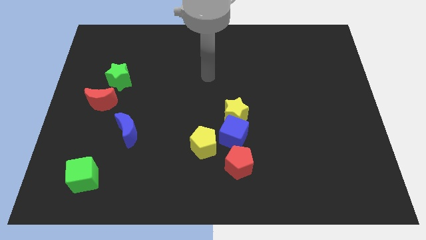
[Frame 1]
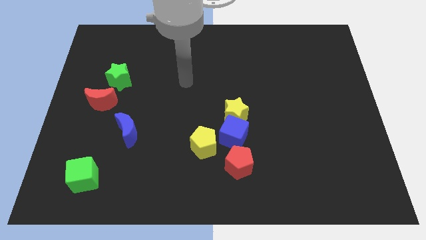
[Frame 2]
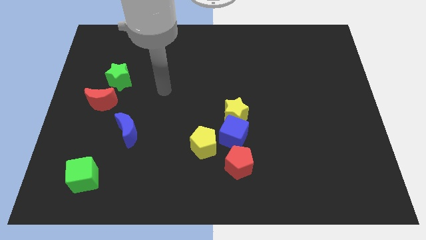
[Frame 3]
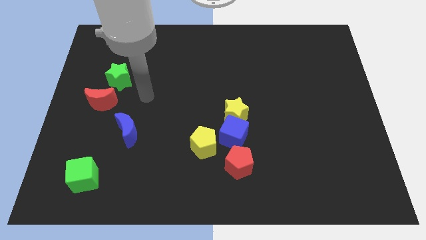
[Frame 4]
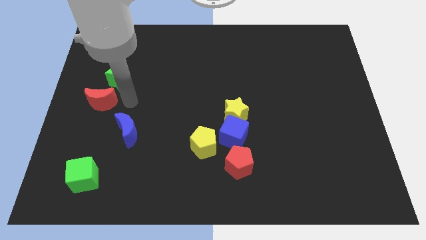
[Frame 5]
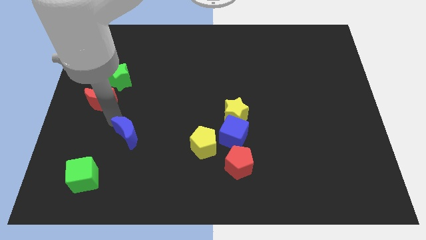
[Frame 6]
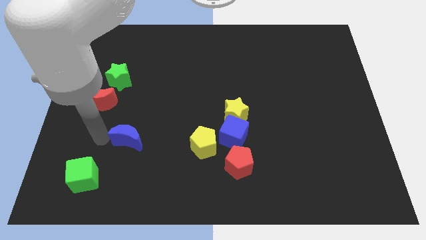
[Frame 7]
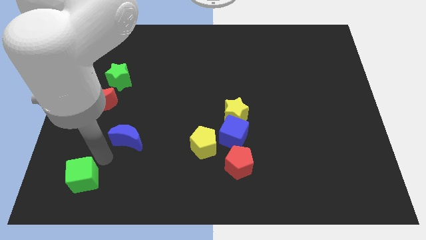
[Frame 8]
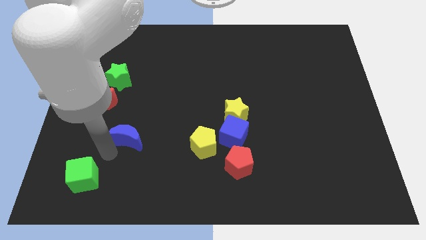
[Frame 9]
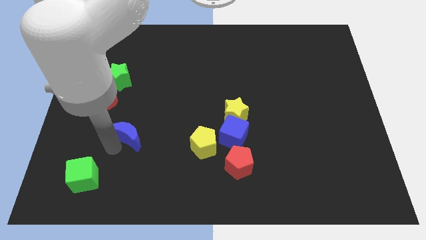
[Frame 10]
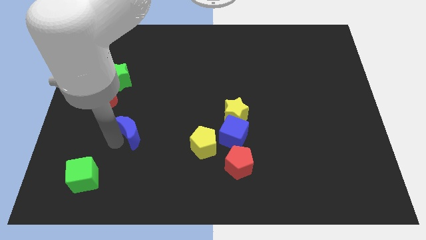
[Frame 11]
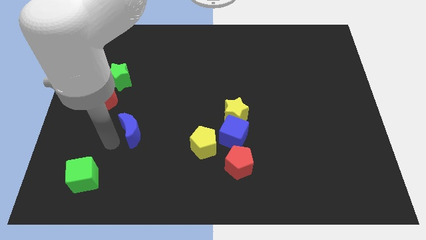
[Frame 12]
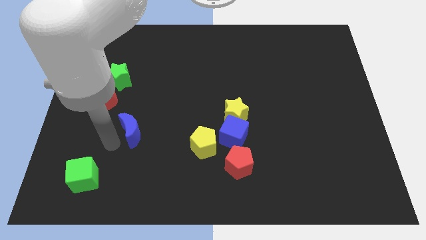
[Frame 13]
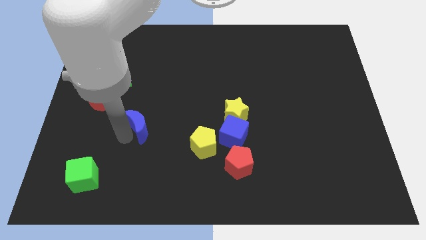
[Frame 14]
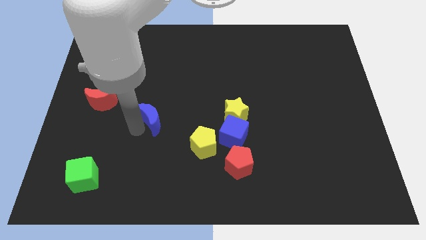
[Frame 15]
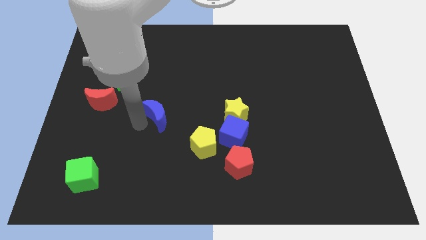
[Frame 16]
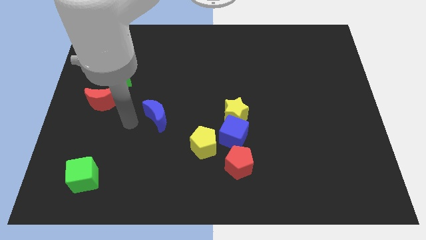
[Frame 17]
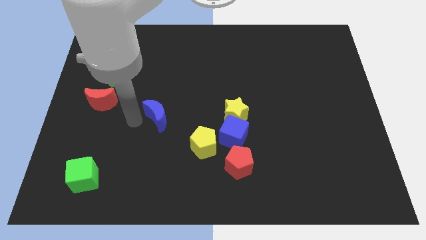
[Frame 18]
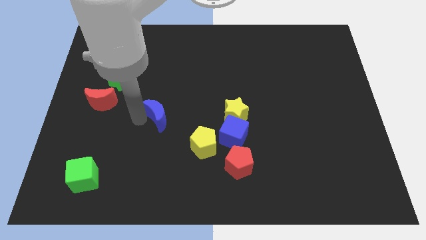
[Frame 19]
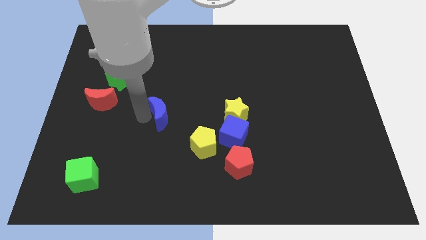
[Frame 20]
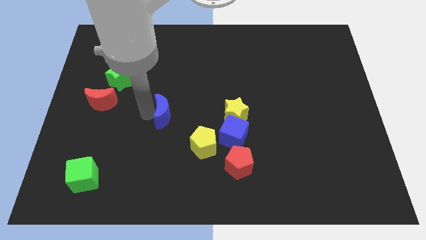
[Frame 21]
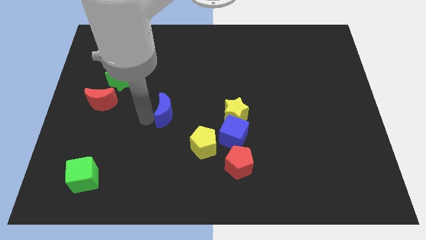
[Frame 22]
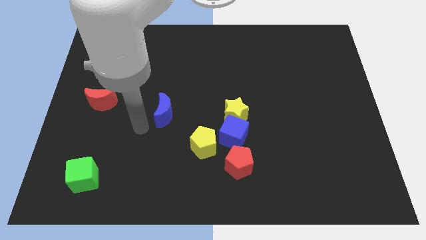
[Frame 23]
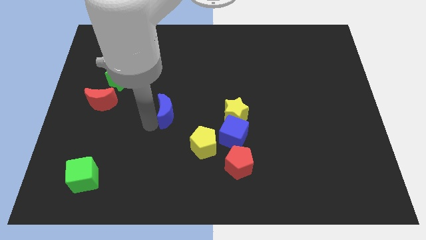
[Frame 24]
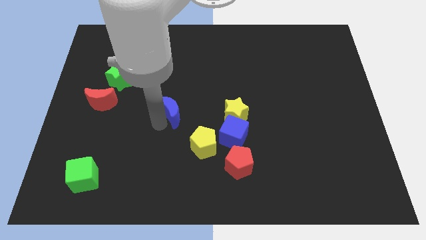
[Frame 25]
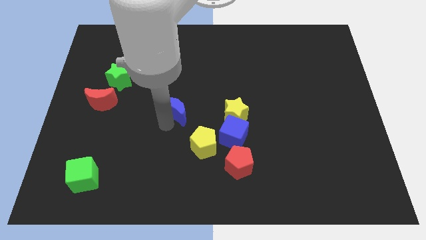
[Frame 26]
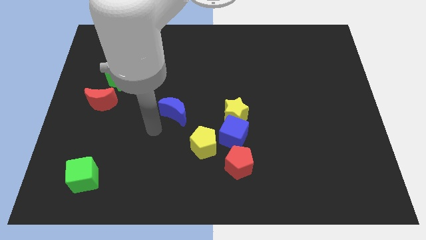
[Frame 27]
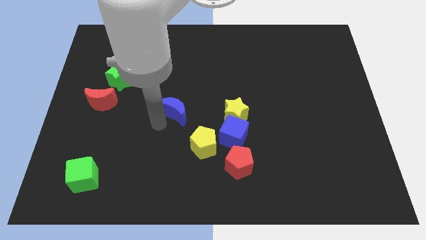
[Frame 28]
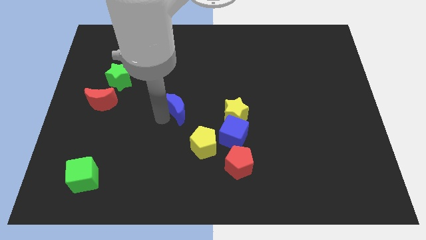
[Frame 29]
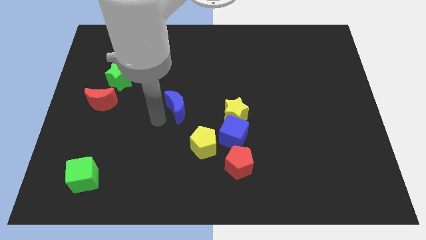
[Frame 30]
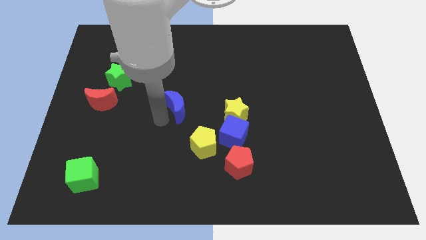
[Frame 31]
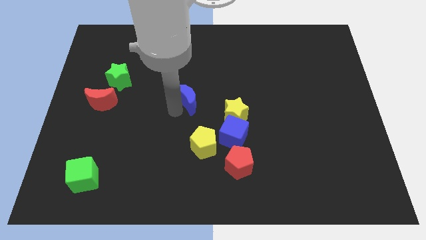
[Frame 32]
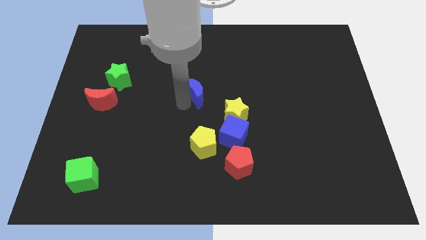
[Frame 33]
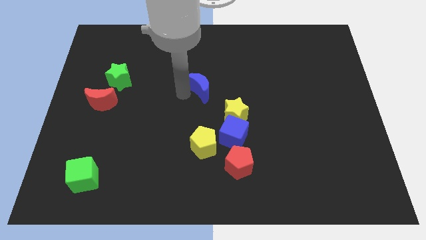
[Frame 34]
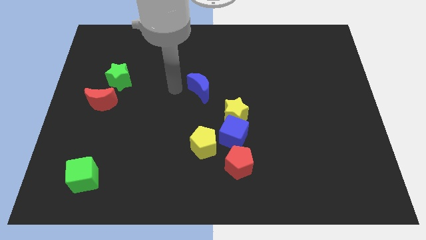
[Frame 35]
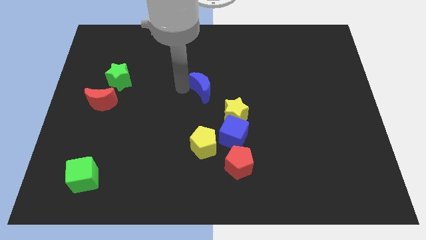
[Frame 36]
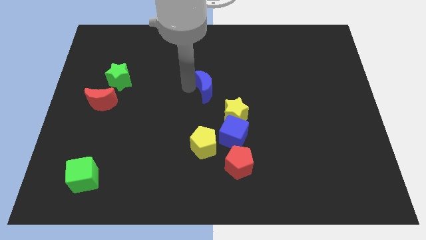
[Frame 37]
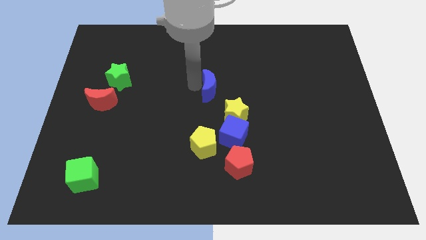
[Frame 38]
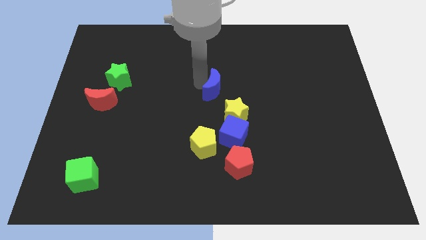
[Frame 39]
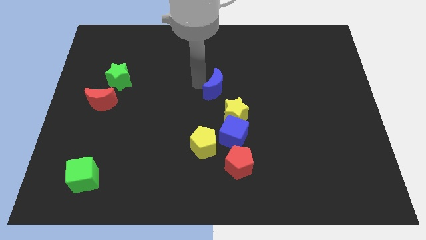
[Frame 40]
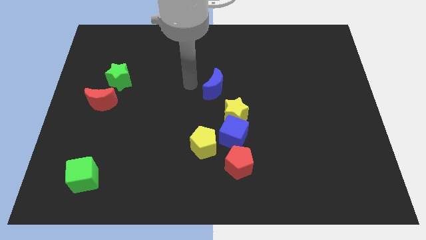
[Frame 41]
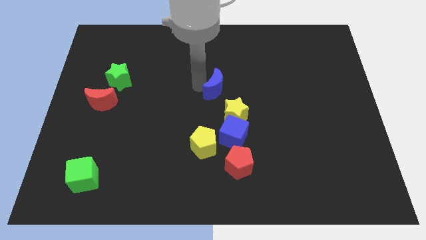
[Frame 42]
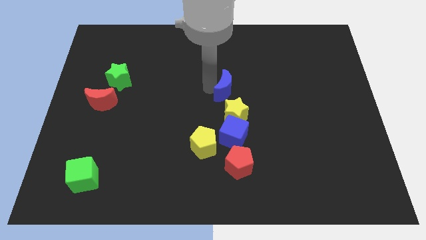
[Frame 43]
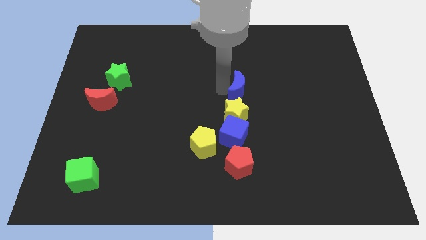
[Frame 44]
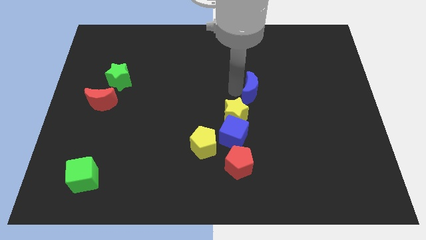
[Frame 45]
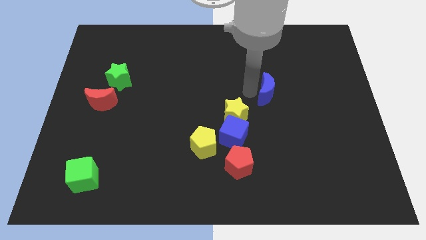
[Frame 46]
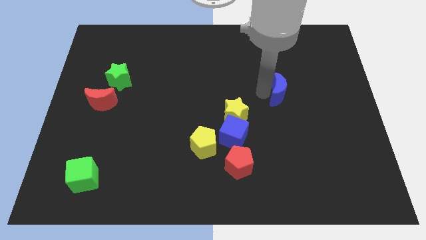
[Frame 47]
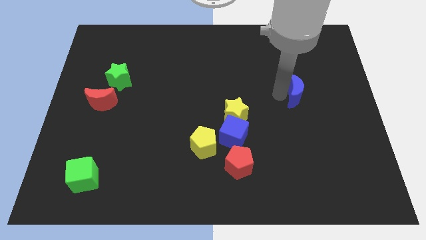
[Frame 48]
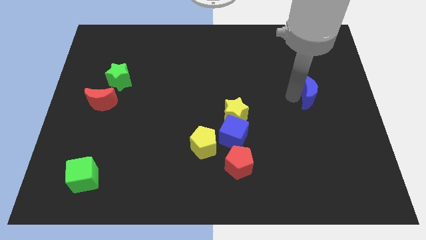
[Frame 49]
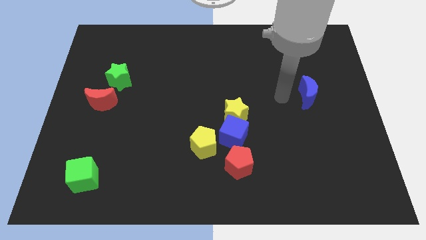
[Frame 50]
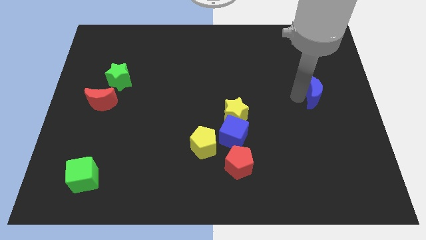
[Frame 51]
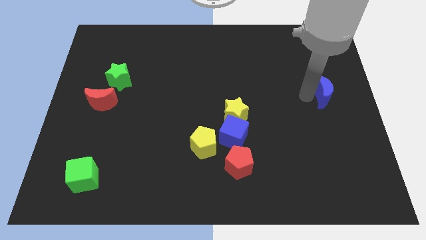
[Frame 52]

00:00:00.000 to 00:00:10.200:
put the blue moon to the right side of the board
